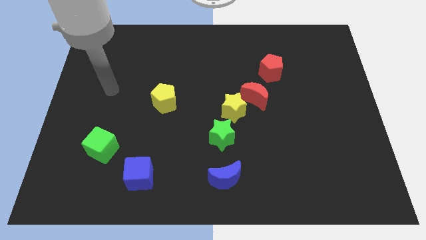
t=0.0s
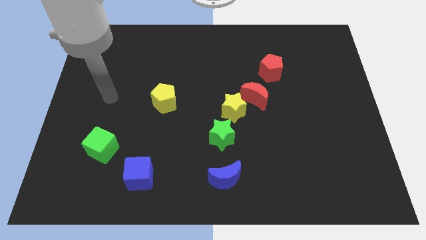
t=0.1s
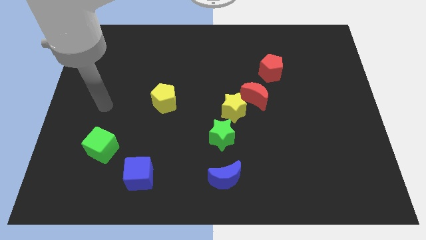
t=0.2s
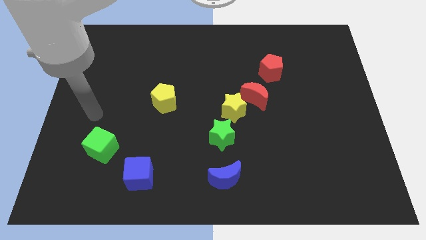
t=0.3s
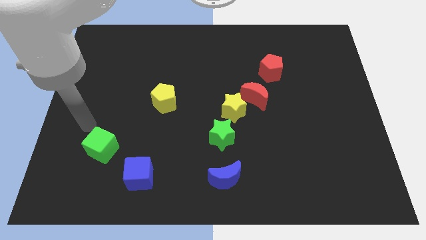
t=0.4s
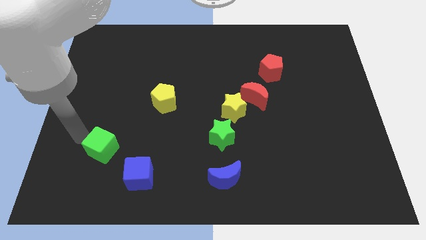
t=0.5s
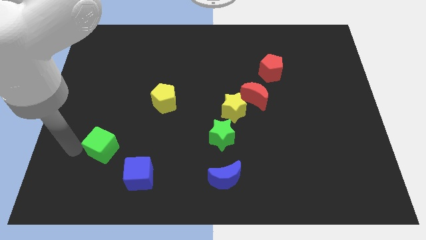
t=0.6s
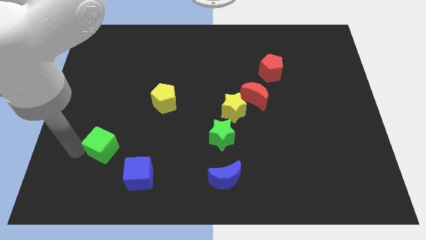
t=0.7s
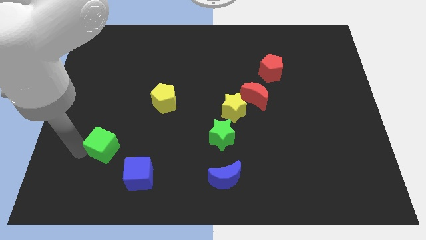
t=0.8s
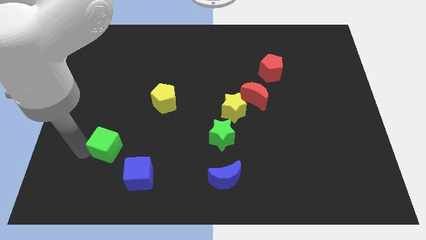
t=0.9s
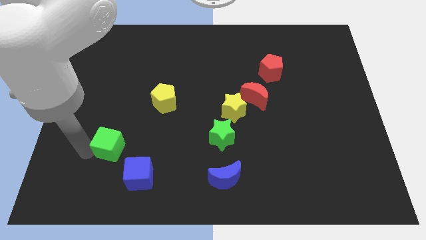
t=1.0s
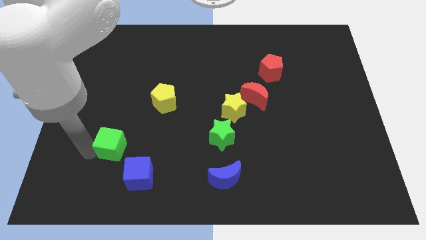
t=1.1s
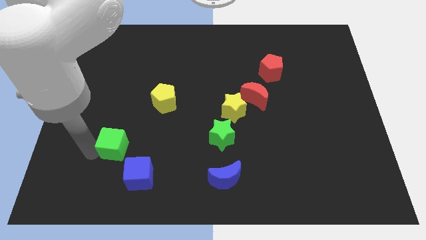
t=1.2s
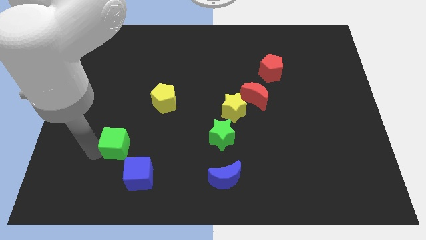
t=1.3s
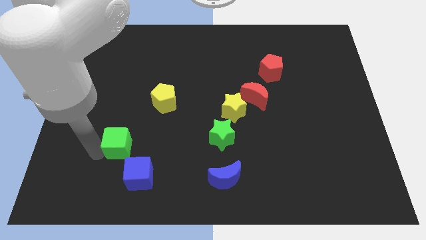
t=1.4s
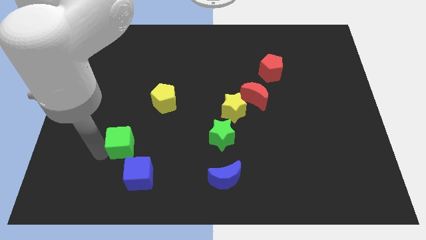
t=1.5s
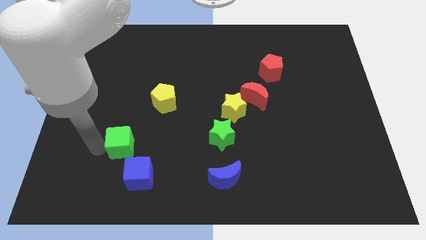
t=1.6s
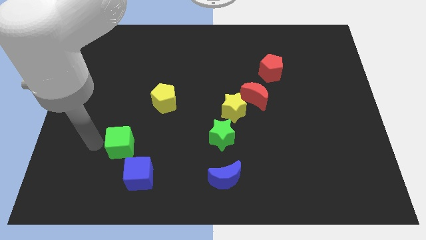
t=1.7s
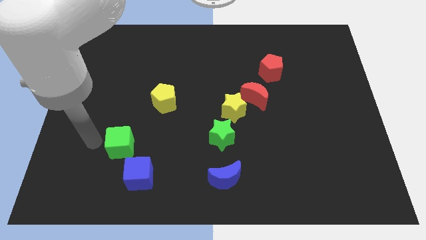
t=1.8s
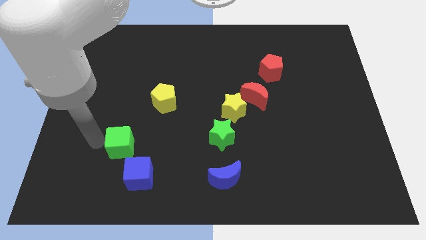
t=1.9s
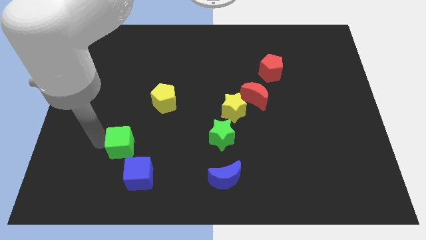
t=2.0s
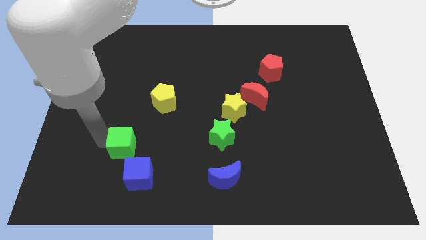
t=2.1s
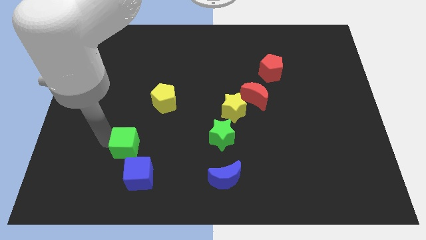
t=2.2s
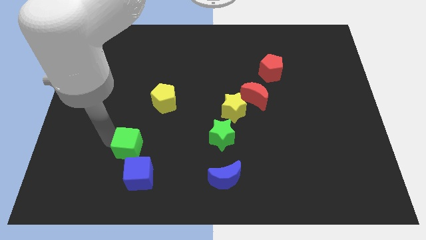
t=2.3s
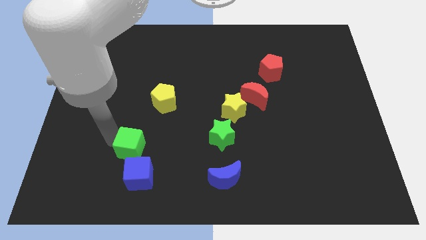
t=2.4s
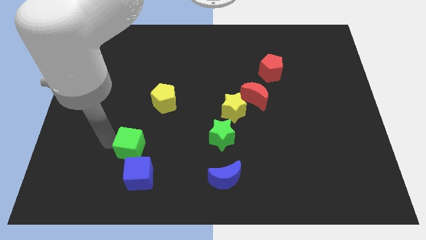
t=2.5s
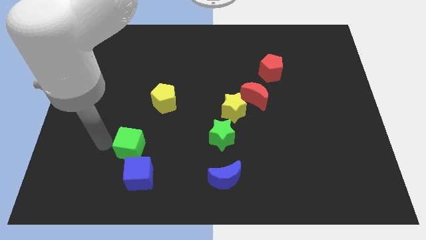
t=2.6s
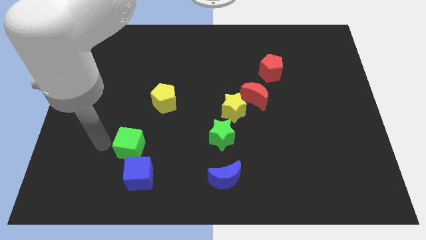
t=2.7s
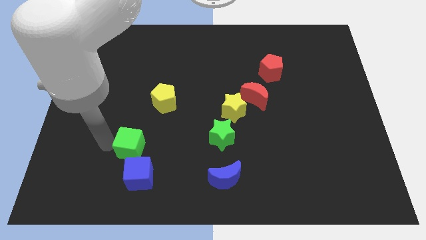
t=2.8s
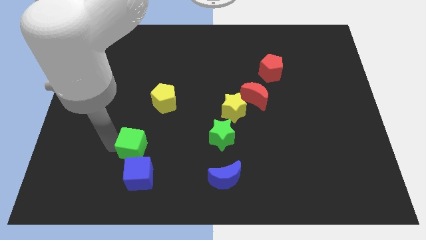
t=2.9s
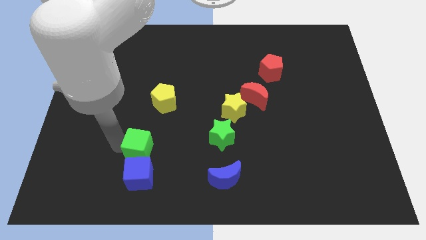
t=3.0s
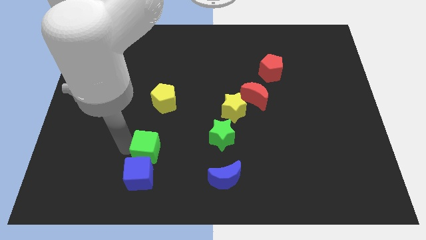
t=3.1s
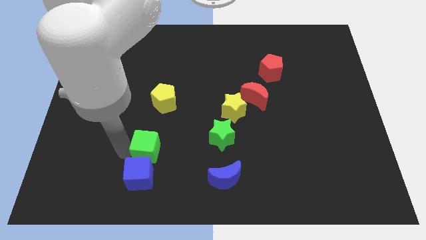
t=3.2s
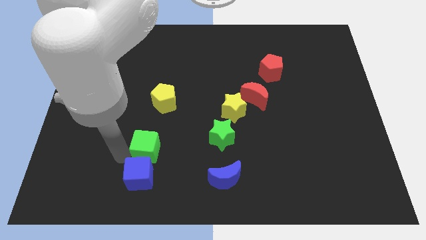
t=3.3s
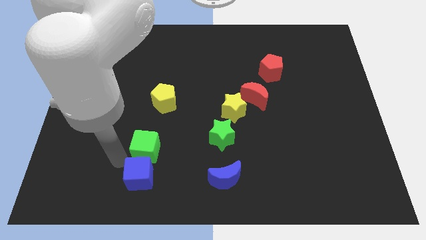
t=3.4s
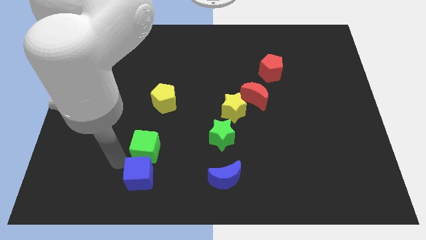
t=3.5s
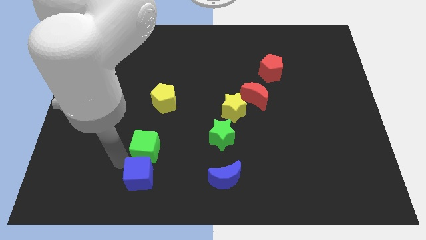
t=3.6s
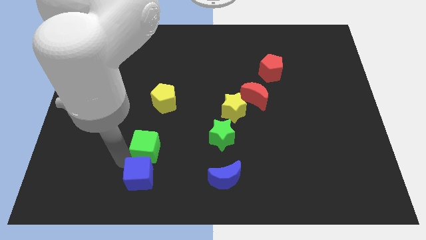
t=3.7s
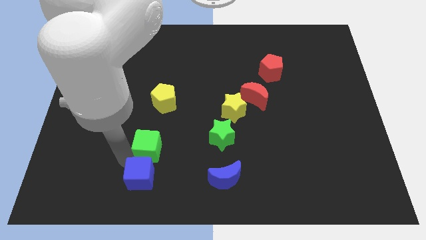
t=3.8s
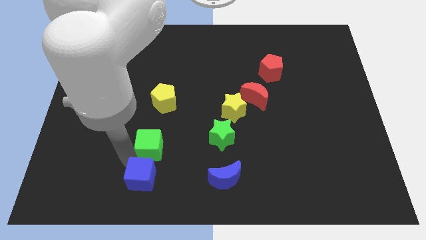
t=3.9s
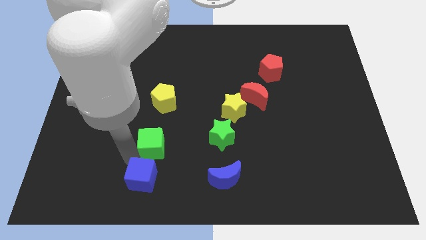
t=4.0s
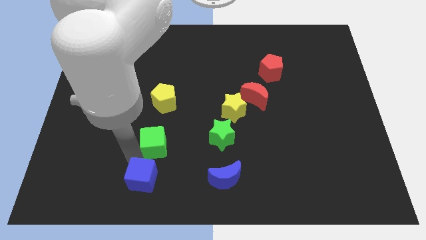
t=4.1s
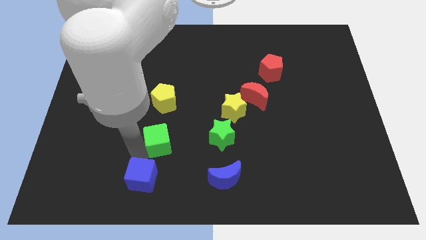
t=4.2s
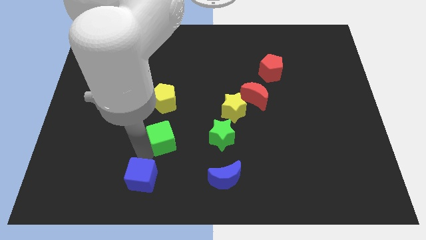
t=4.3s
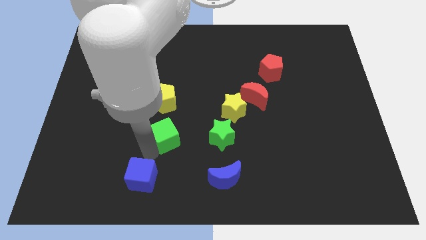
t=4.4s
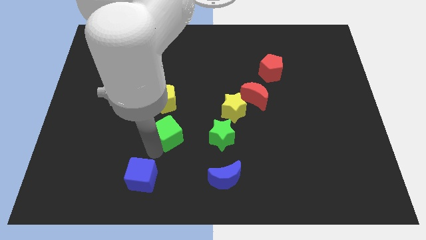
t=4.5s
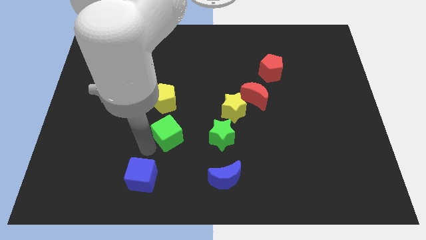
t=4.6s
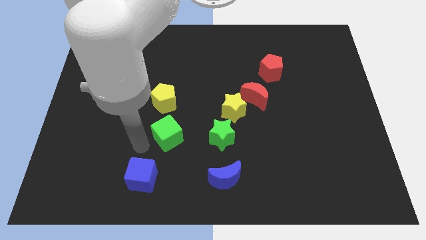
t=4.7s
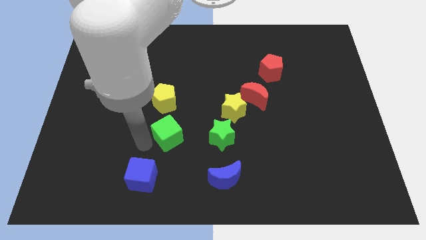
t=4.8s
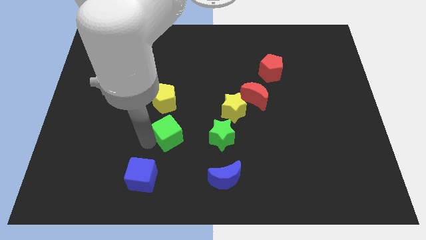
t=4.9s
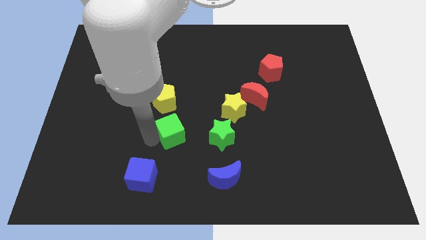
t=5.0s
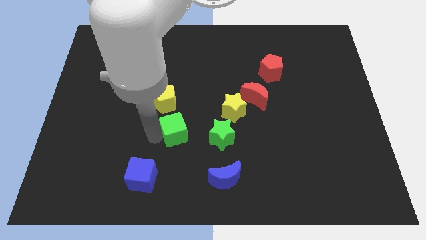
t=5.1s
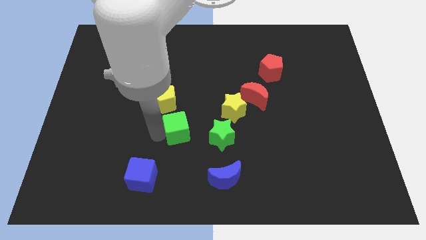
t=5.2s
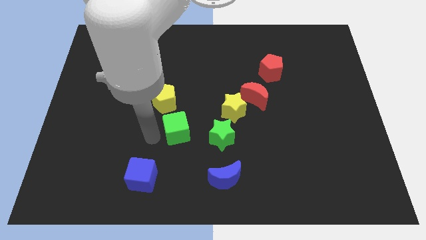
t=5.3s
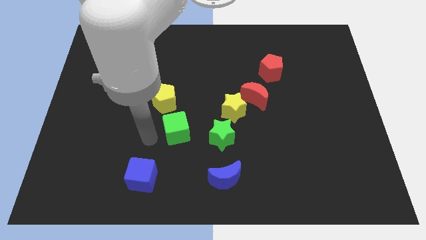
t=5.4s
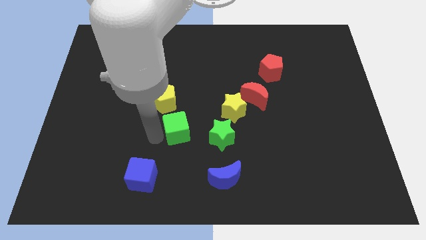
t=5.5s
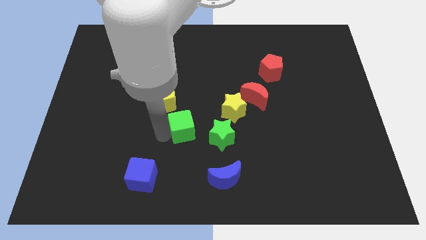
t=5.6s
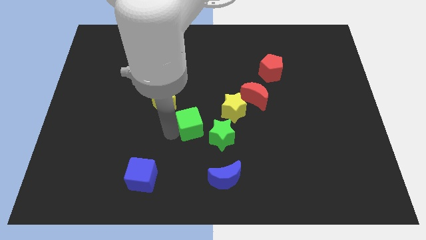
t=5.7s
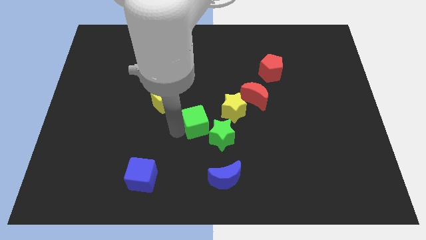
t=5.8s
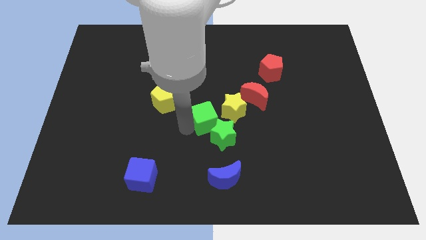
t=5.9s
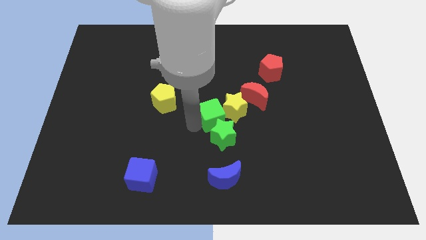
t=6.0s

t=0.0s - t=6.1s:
push the green cube towards the yellow star
